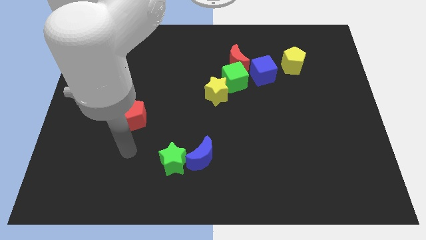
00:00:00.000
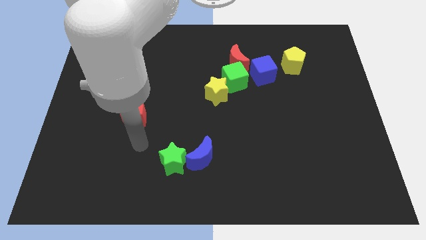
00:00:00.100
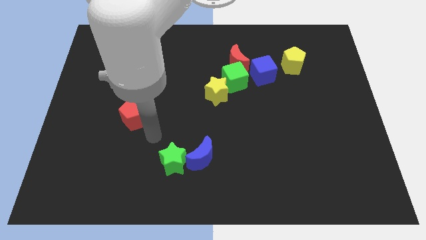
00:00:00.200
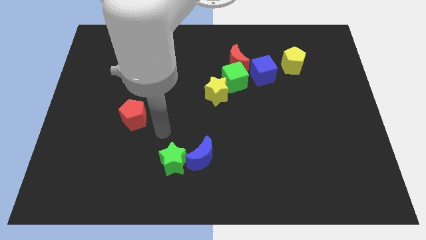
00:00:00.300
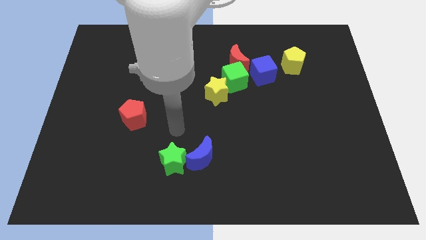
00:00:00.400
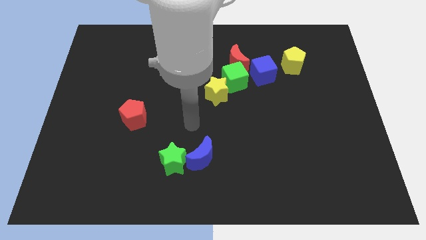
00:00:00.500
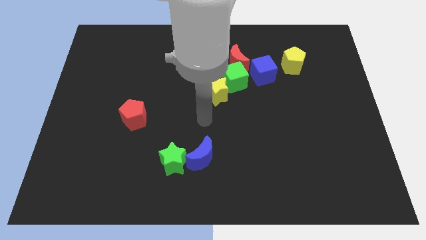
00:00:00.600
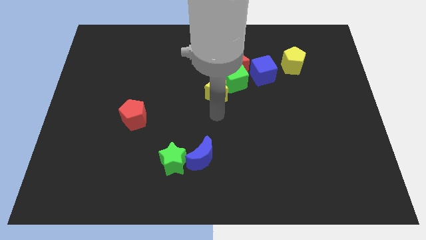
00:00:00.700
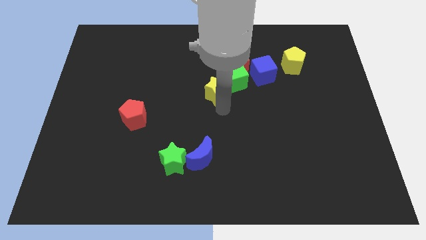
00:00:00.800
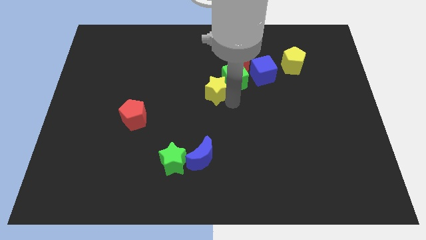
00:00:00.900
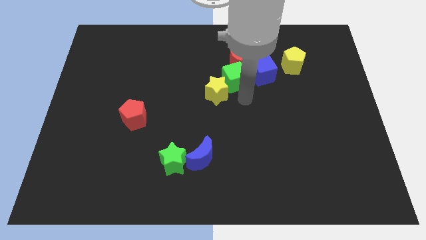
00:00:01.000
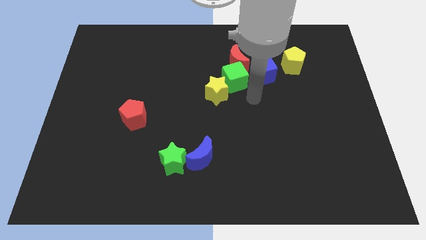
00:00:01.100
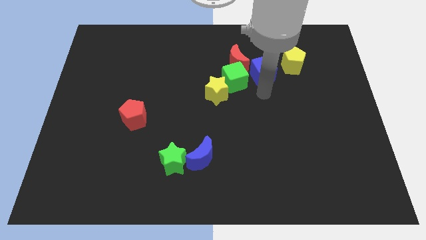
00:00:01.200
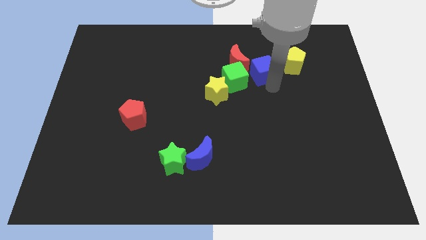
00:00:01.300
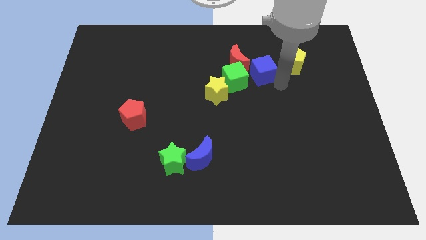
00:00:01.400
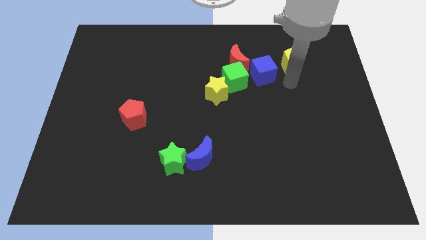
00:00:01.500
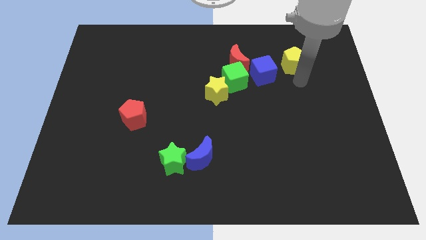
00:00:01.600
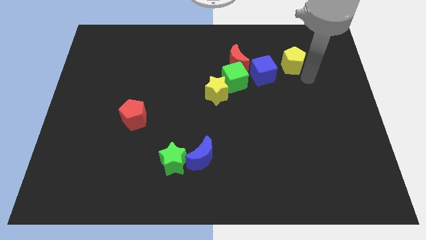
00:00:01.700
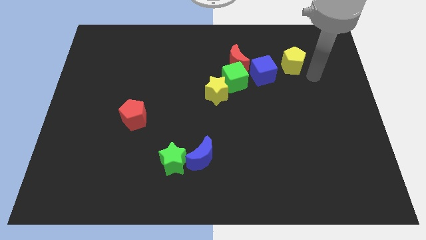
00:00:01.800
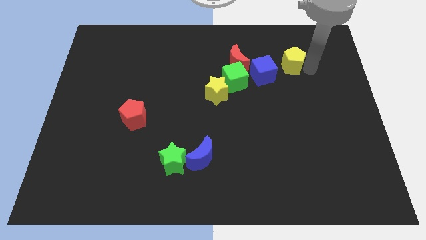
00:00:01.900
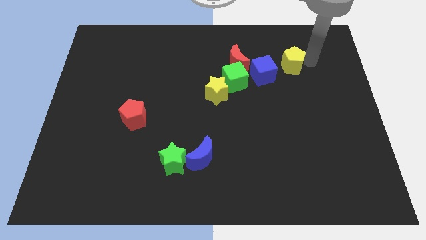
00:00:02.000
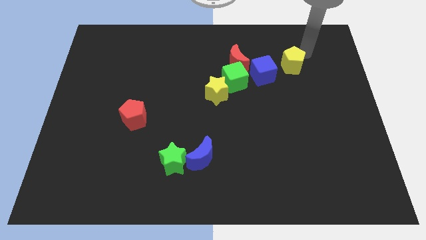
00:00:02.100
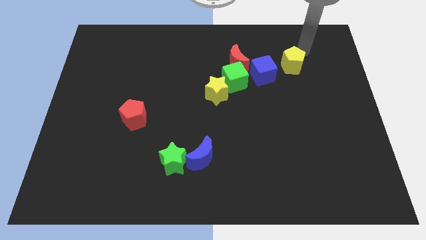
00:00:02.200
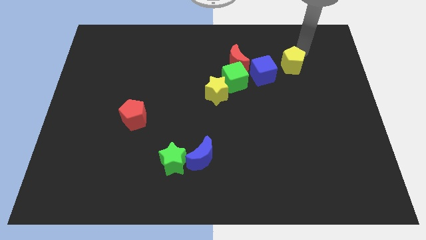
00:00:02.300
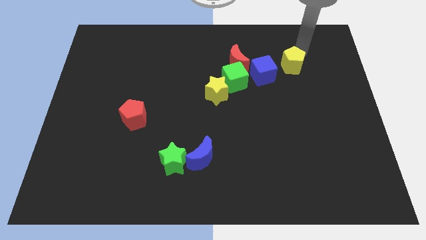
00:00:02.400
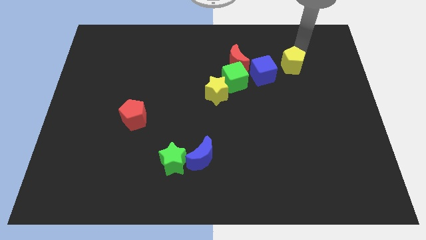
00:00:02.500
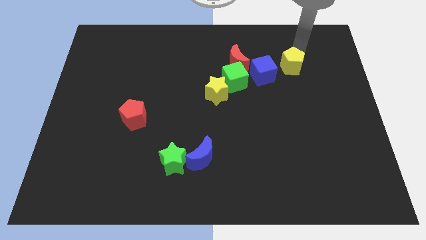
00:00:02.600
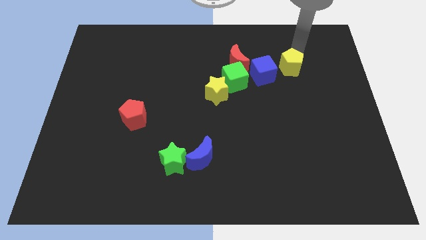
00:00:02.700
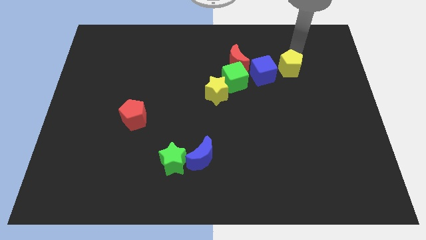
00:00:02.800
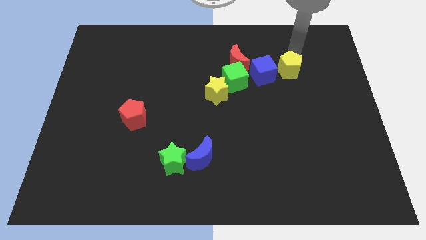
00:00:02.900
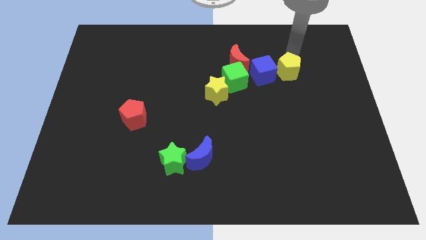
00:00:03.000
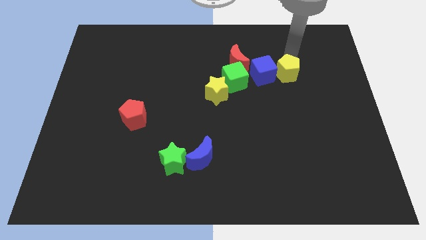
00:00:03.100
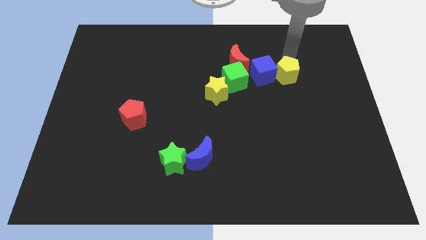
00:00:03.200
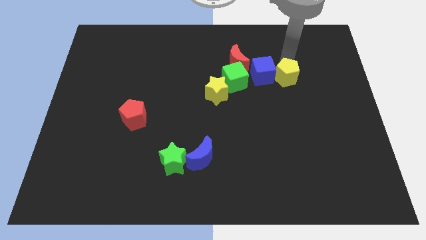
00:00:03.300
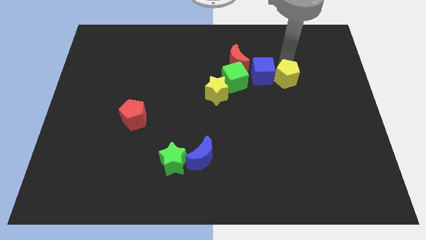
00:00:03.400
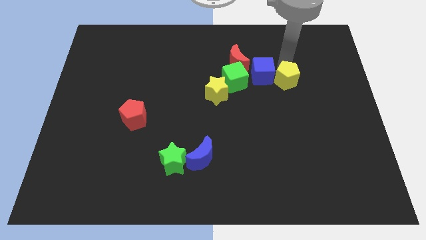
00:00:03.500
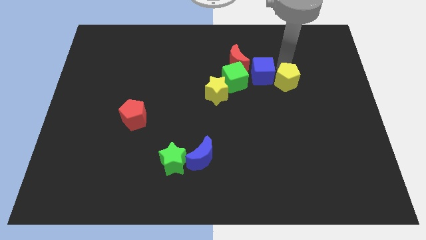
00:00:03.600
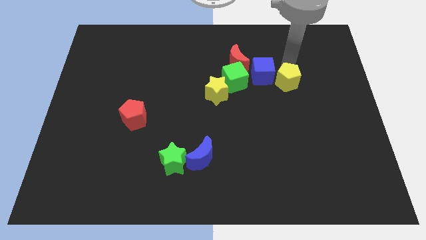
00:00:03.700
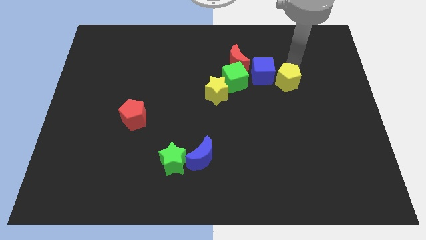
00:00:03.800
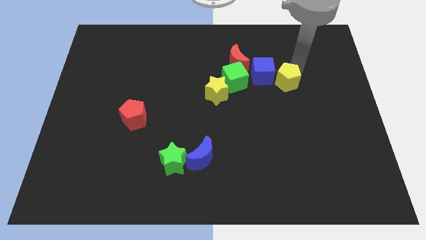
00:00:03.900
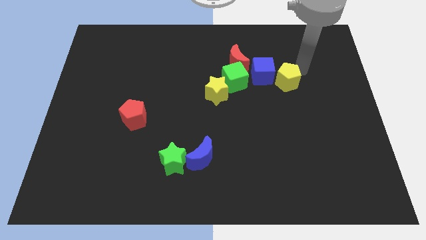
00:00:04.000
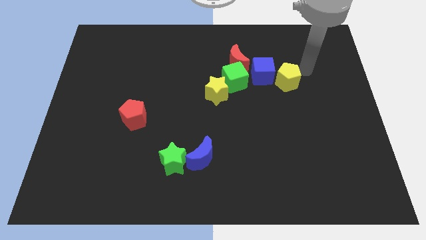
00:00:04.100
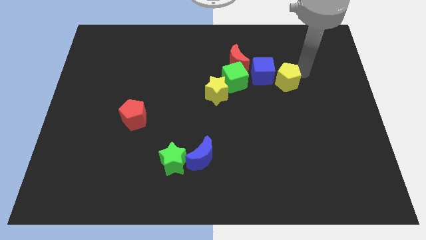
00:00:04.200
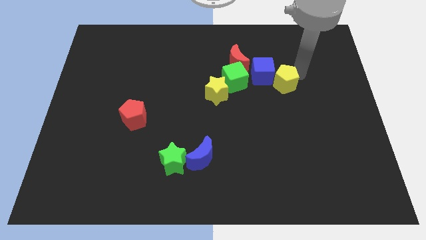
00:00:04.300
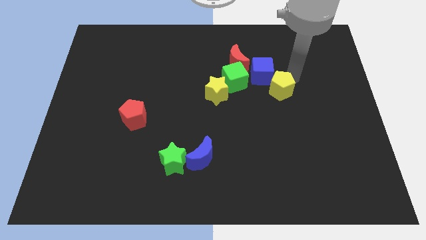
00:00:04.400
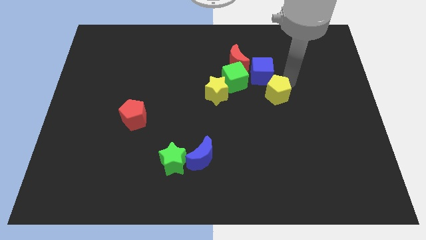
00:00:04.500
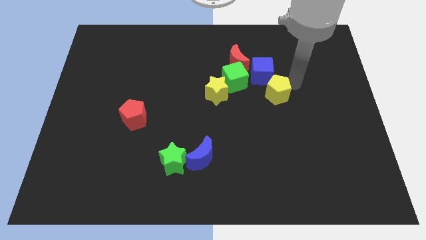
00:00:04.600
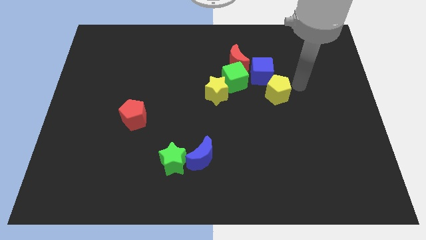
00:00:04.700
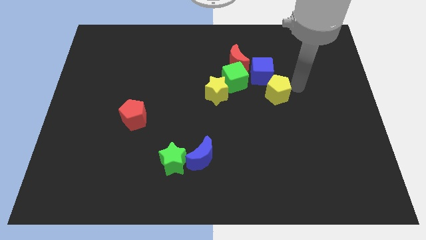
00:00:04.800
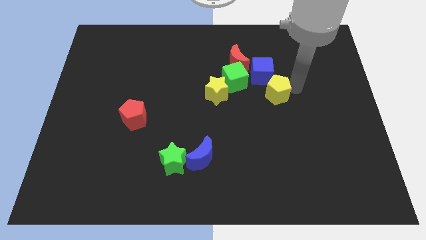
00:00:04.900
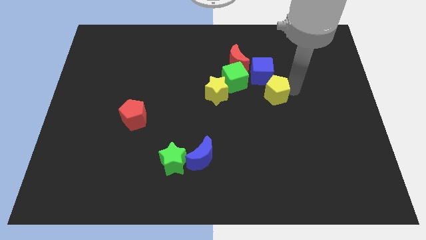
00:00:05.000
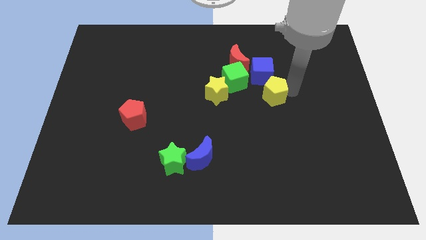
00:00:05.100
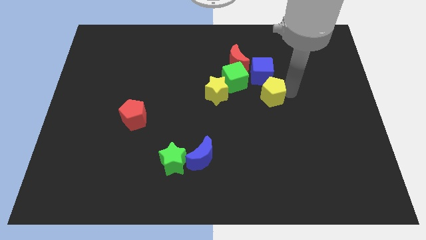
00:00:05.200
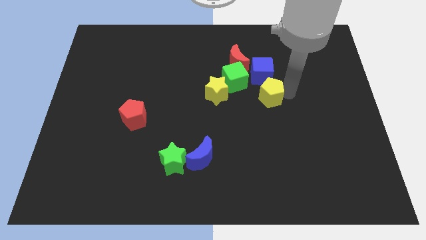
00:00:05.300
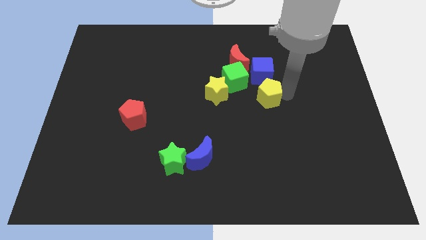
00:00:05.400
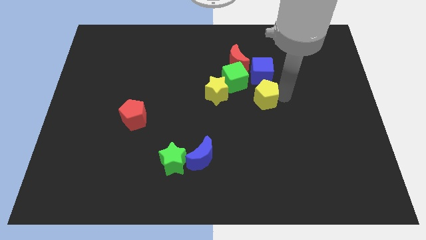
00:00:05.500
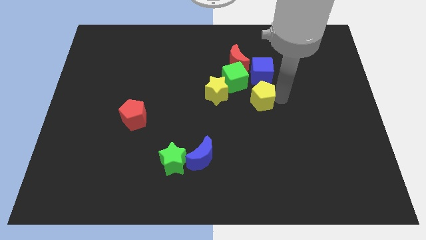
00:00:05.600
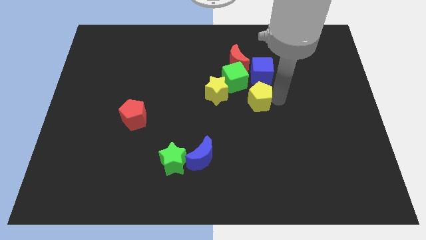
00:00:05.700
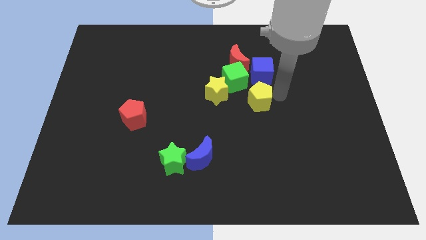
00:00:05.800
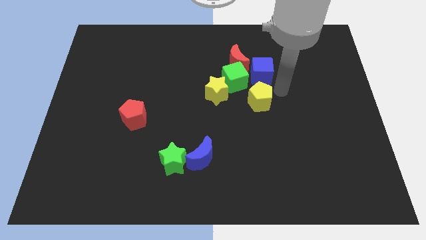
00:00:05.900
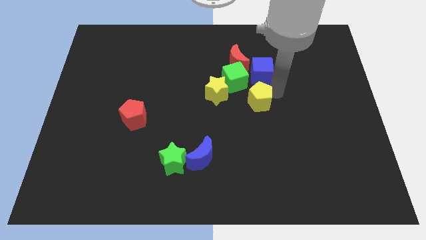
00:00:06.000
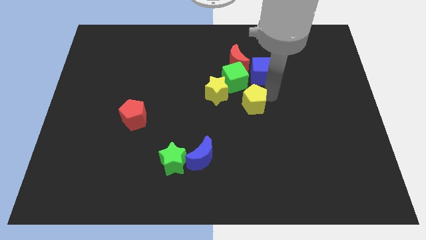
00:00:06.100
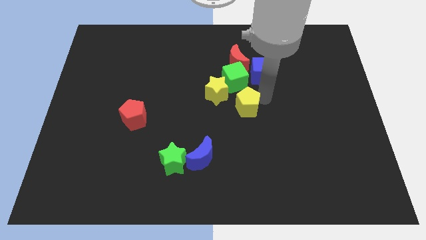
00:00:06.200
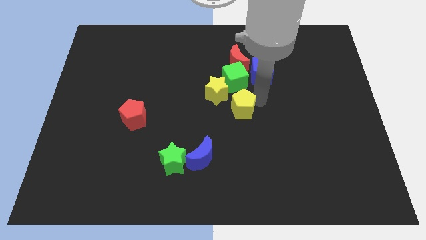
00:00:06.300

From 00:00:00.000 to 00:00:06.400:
move the yellow pentagon diagonally down and left

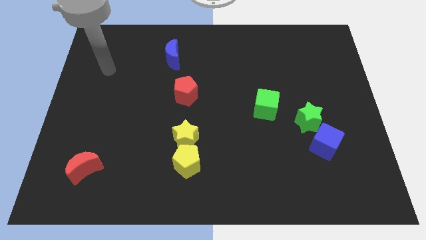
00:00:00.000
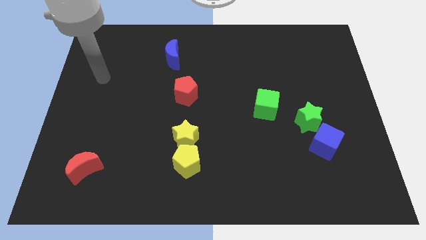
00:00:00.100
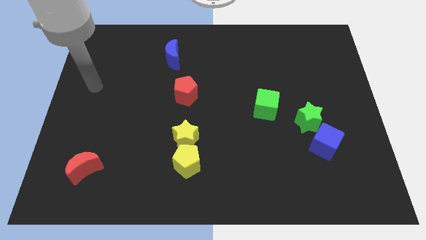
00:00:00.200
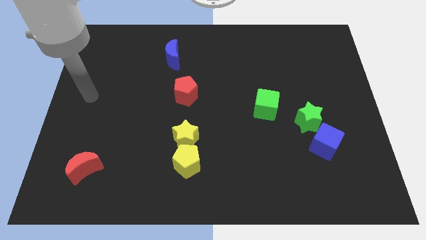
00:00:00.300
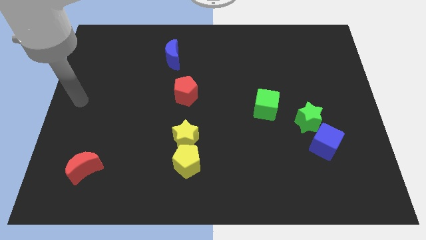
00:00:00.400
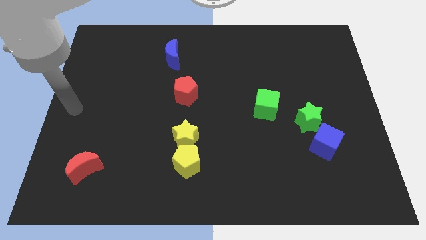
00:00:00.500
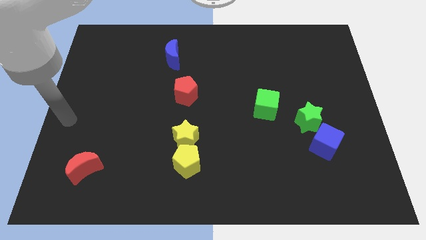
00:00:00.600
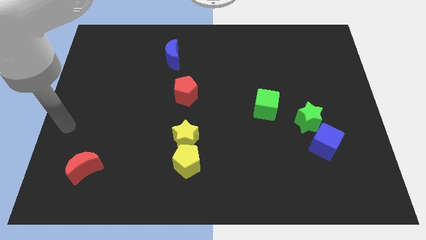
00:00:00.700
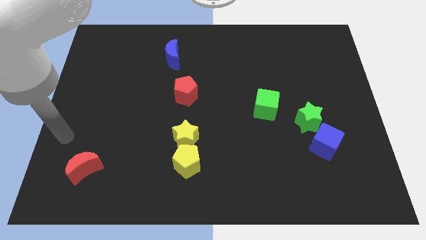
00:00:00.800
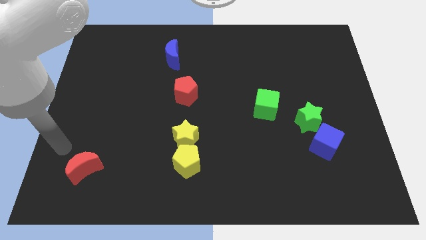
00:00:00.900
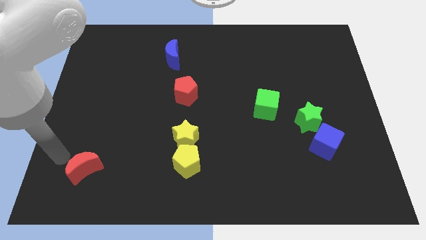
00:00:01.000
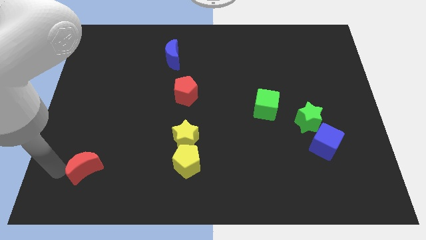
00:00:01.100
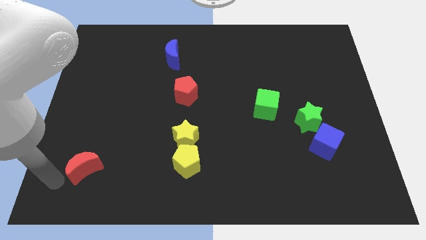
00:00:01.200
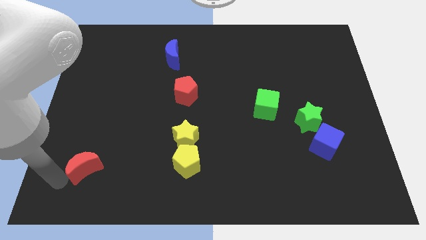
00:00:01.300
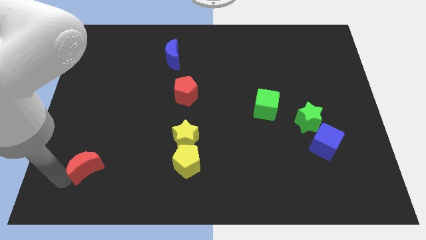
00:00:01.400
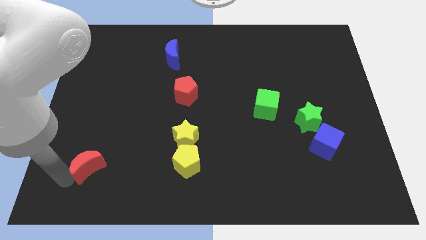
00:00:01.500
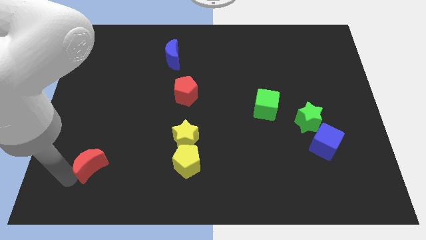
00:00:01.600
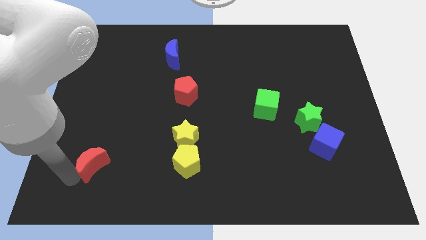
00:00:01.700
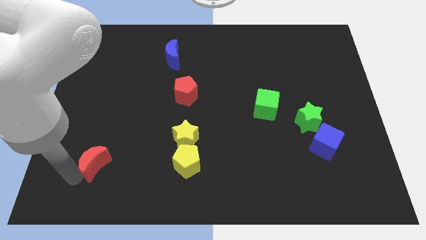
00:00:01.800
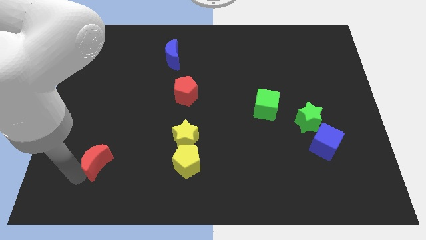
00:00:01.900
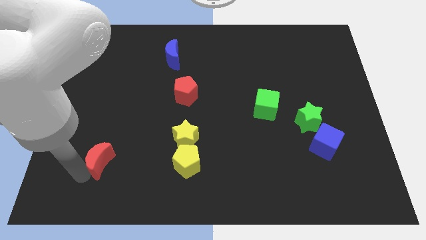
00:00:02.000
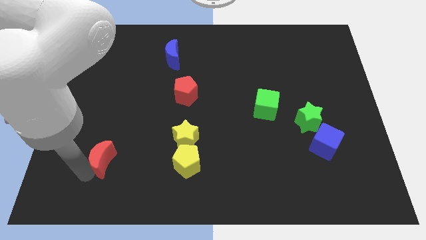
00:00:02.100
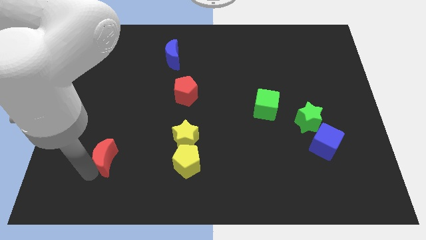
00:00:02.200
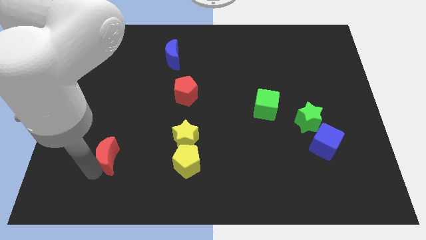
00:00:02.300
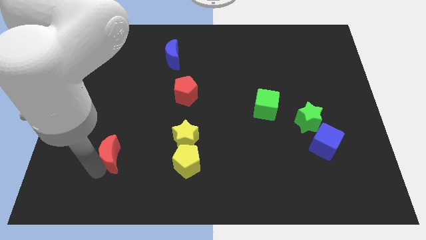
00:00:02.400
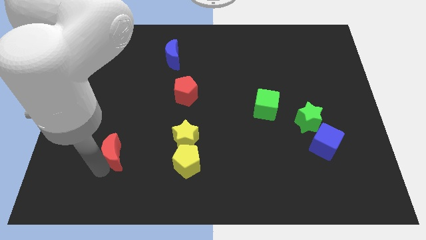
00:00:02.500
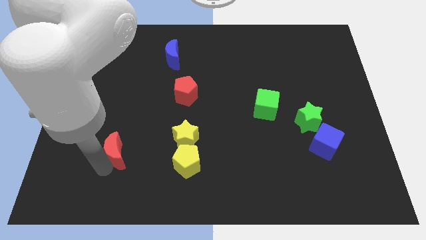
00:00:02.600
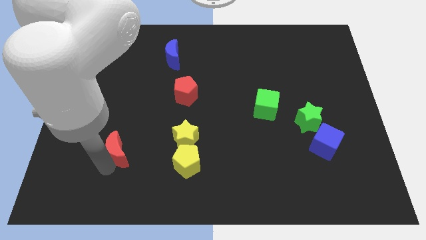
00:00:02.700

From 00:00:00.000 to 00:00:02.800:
slightly slide the red moon upwards and to the right
